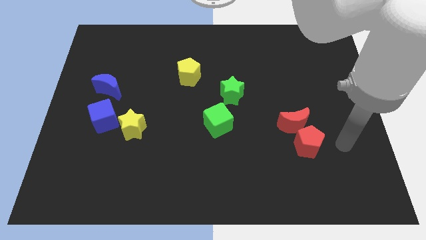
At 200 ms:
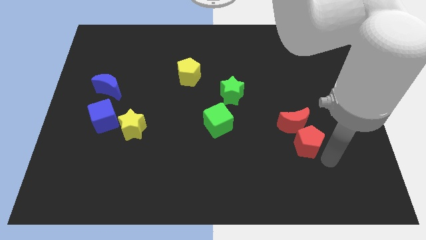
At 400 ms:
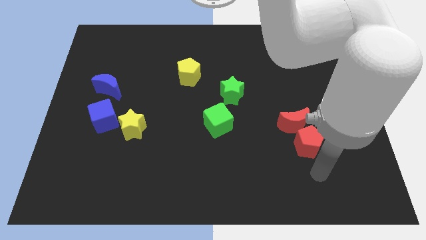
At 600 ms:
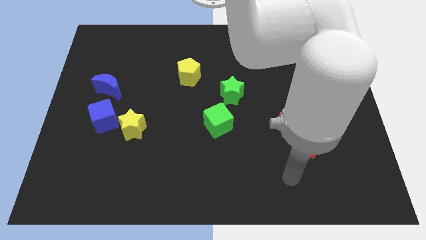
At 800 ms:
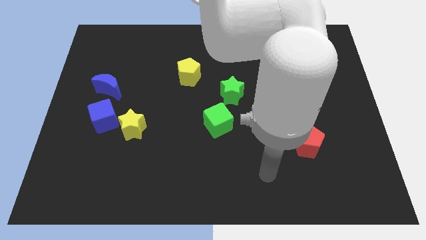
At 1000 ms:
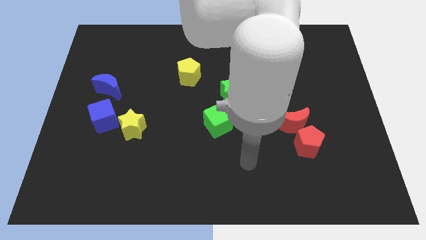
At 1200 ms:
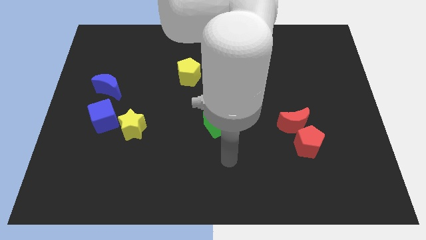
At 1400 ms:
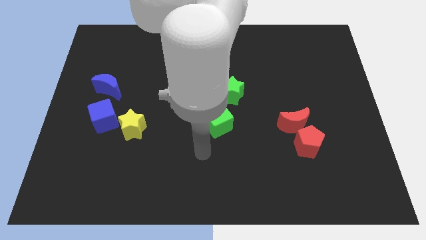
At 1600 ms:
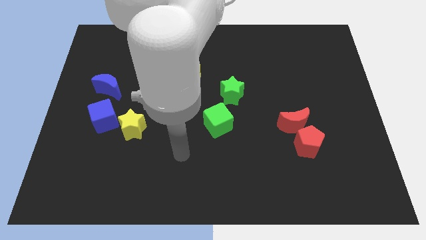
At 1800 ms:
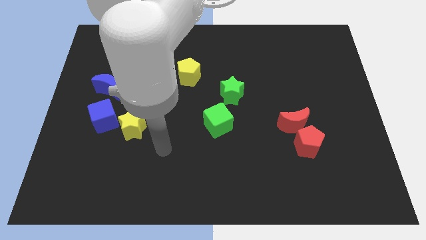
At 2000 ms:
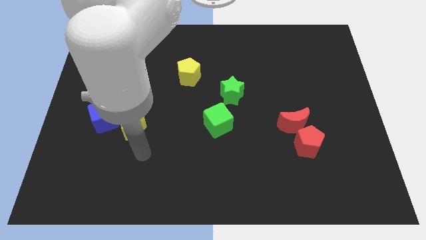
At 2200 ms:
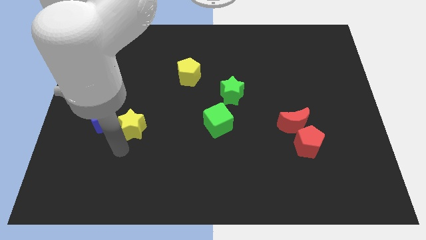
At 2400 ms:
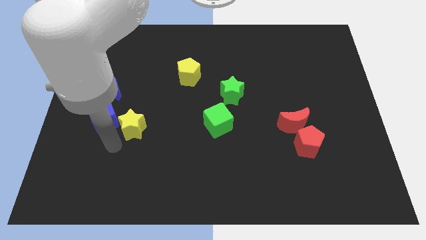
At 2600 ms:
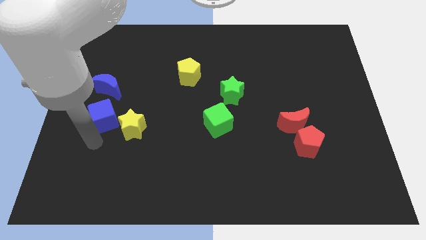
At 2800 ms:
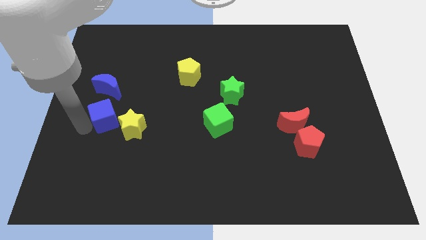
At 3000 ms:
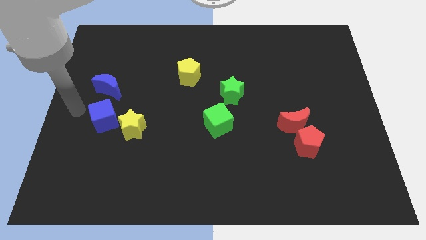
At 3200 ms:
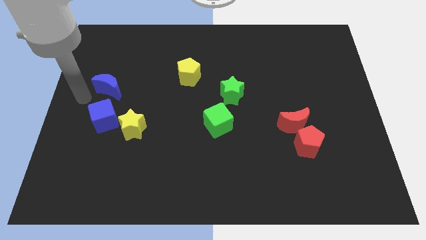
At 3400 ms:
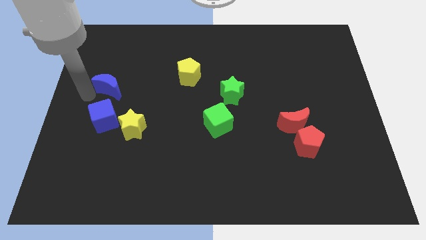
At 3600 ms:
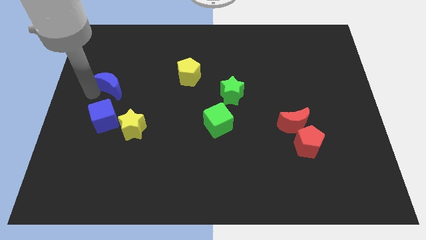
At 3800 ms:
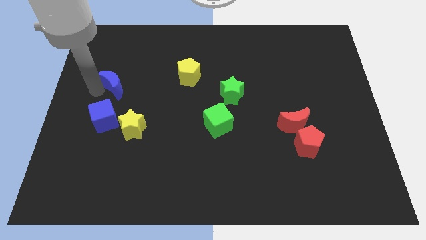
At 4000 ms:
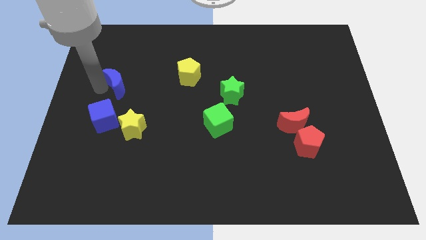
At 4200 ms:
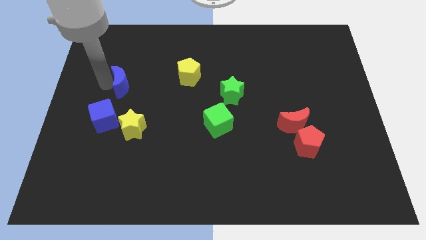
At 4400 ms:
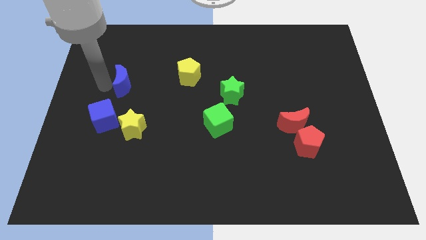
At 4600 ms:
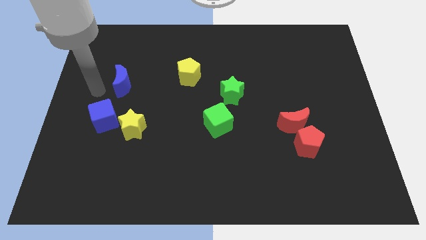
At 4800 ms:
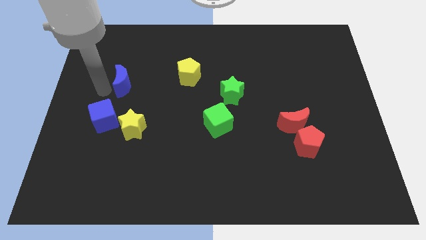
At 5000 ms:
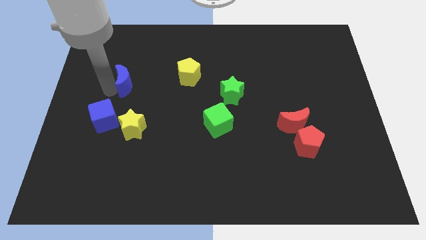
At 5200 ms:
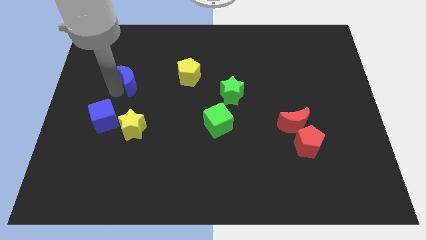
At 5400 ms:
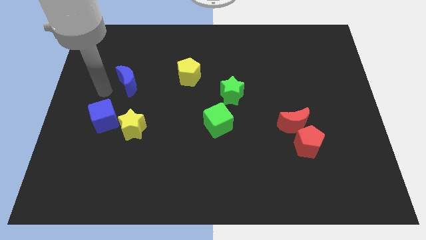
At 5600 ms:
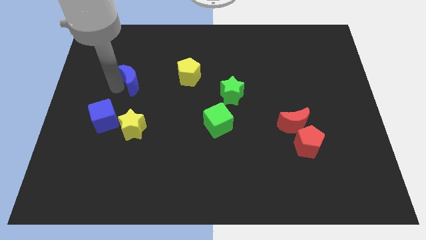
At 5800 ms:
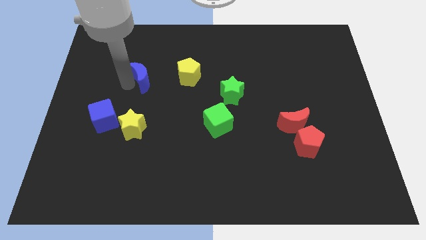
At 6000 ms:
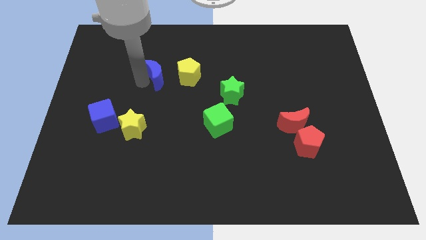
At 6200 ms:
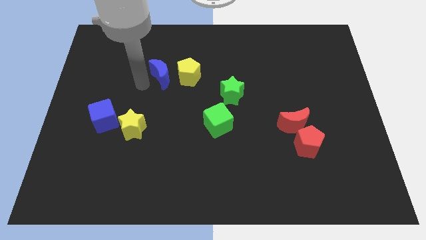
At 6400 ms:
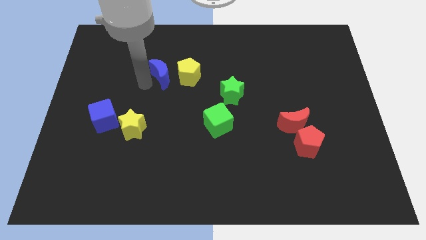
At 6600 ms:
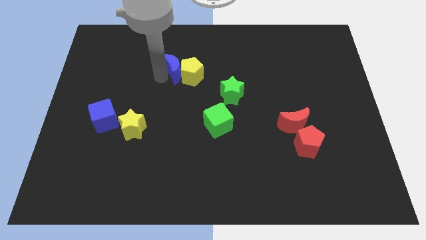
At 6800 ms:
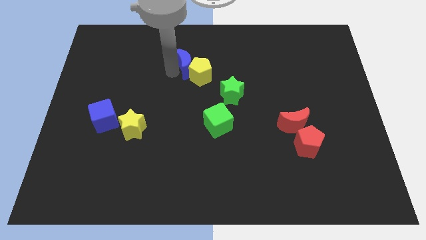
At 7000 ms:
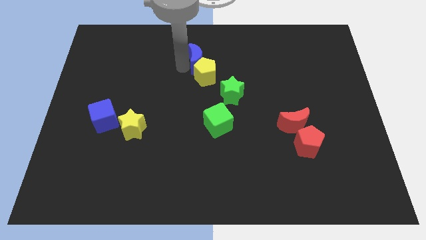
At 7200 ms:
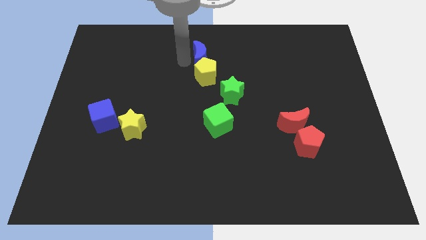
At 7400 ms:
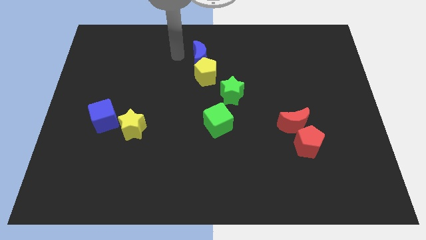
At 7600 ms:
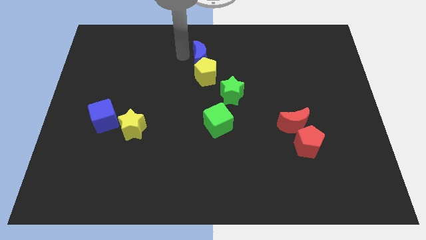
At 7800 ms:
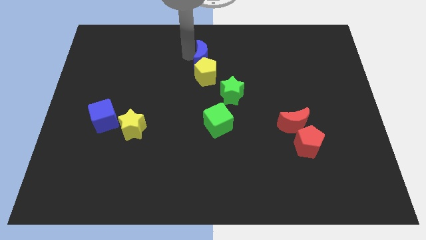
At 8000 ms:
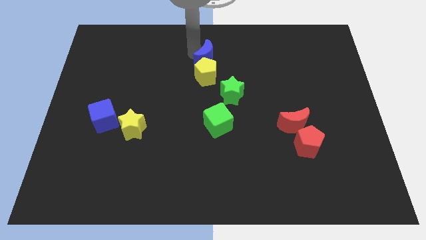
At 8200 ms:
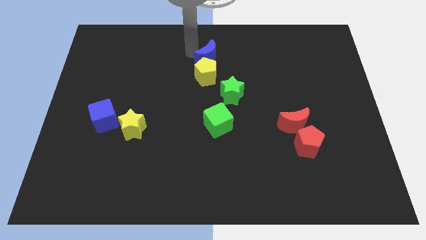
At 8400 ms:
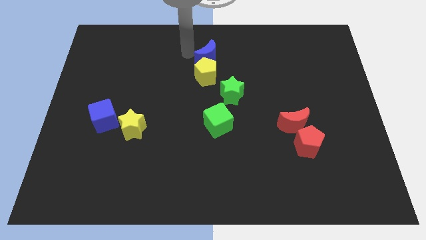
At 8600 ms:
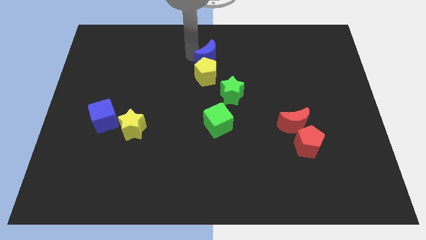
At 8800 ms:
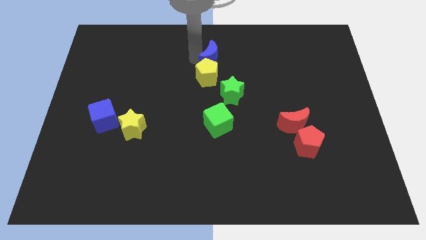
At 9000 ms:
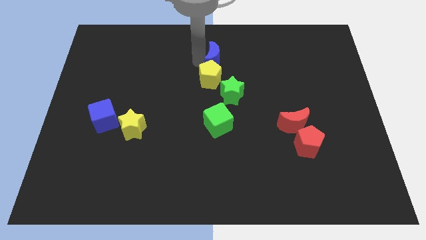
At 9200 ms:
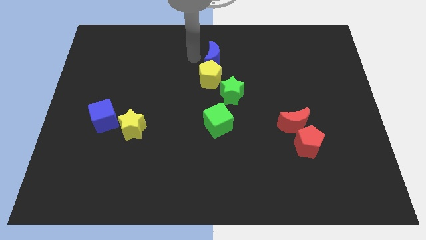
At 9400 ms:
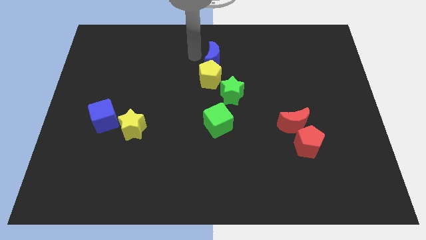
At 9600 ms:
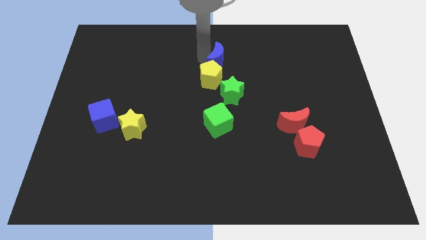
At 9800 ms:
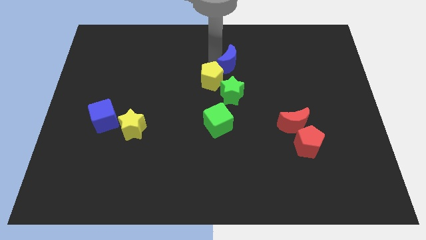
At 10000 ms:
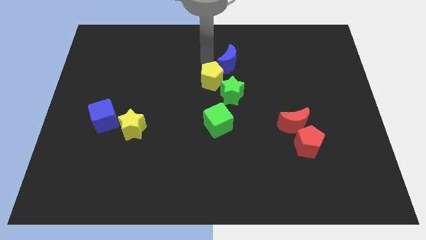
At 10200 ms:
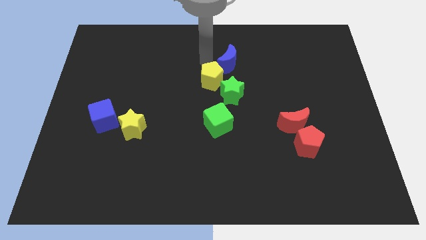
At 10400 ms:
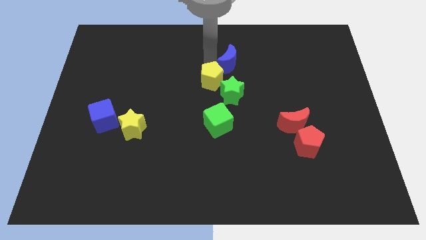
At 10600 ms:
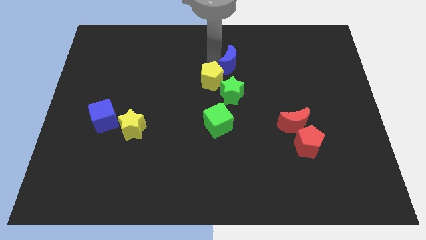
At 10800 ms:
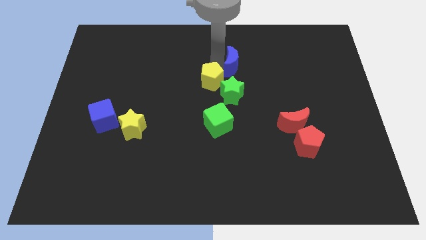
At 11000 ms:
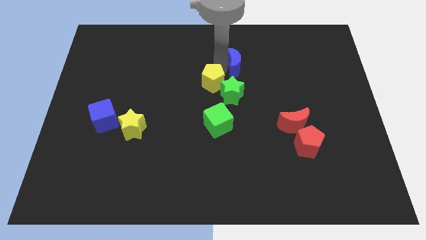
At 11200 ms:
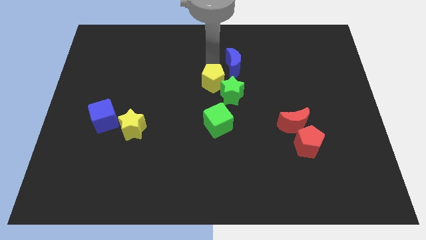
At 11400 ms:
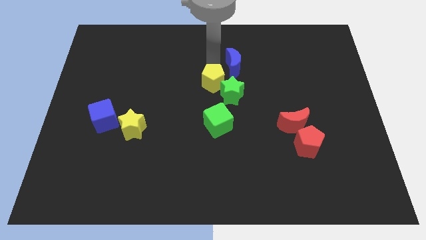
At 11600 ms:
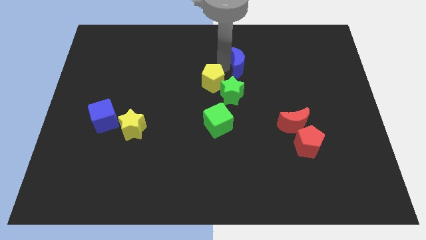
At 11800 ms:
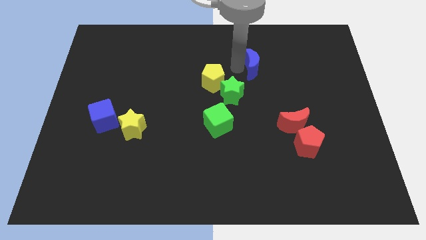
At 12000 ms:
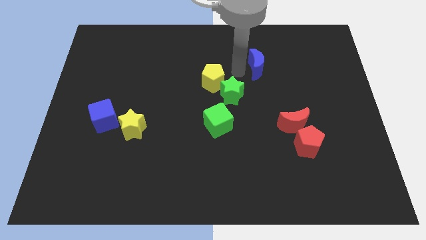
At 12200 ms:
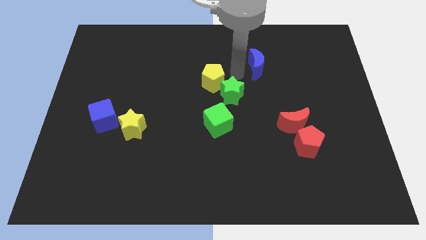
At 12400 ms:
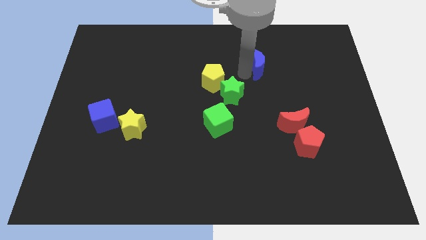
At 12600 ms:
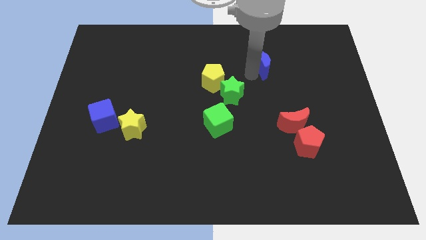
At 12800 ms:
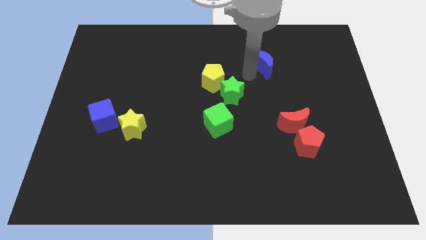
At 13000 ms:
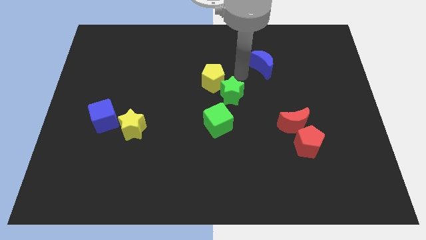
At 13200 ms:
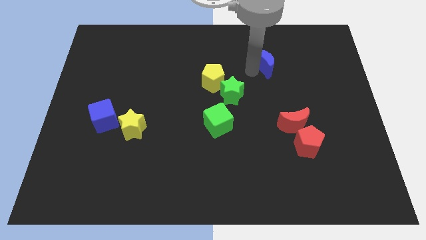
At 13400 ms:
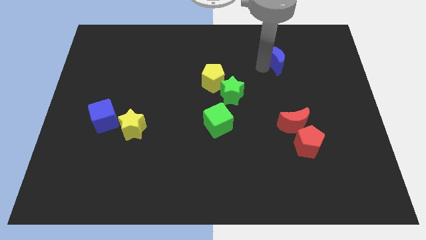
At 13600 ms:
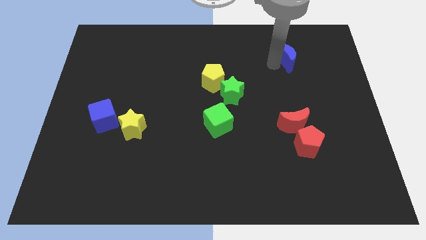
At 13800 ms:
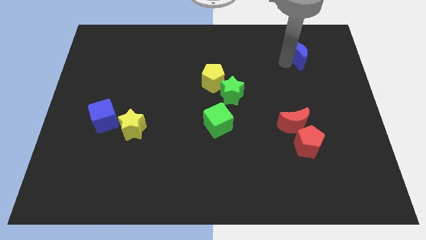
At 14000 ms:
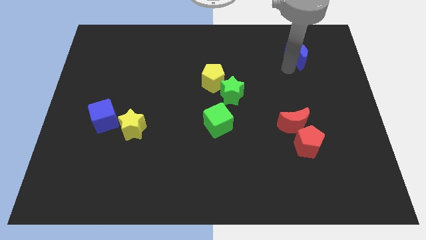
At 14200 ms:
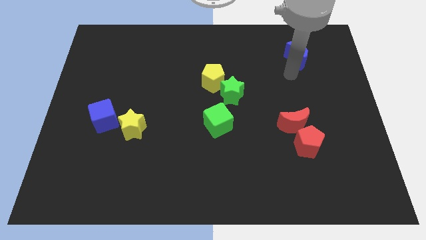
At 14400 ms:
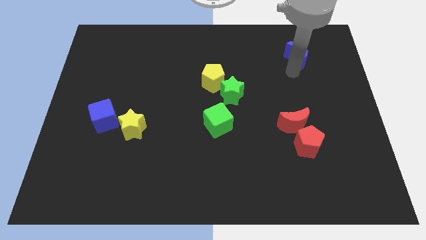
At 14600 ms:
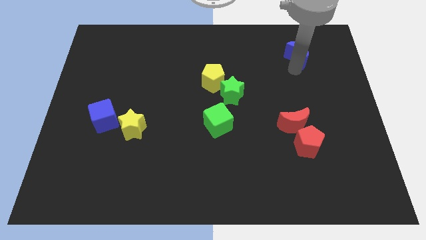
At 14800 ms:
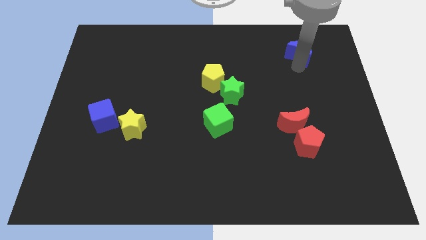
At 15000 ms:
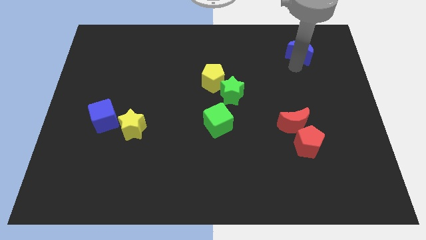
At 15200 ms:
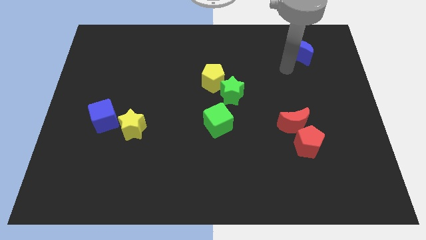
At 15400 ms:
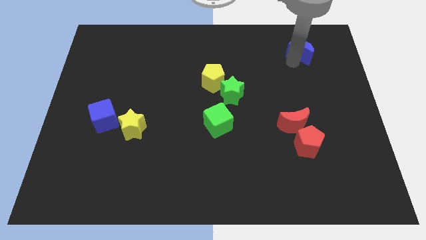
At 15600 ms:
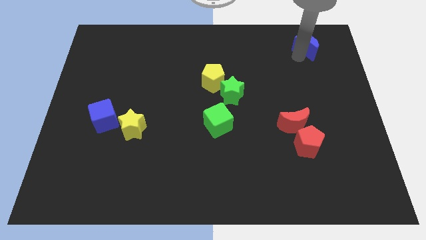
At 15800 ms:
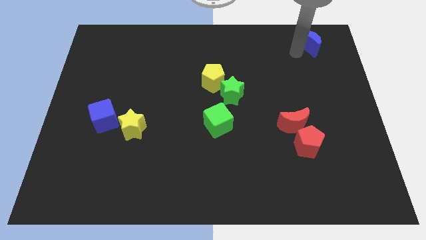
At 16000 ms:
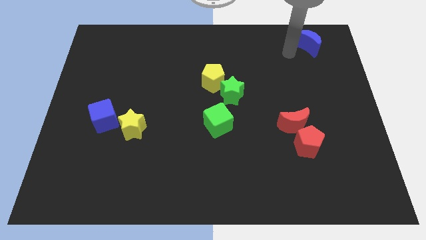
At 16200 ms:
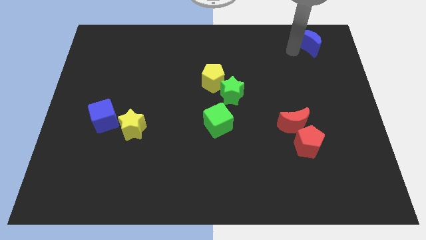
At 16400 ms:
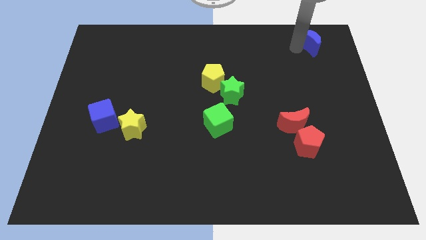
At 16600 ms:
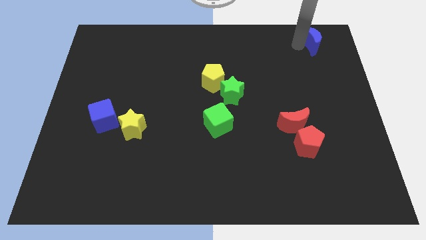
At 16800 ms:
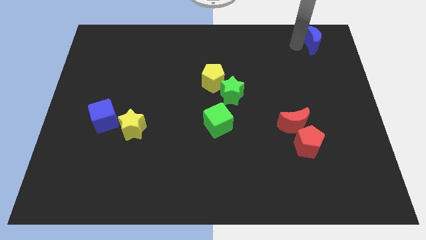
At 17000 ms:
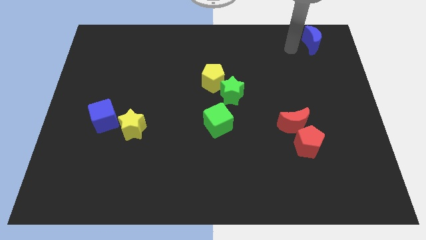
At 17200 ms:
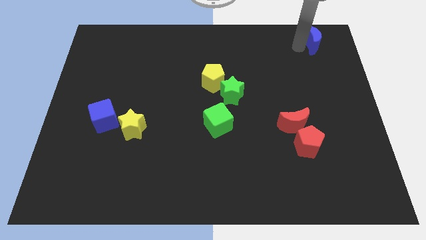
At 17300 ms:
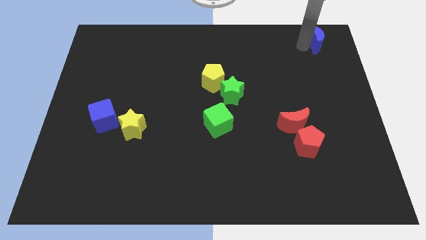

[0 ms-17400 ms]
push the blue moon to the top right
